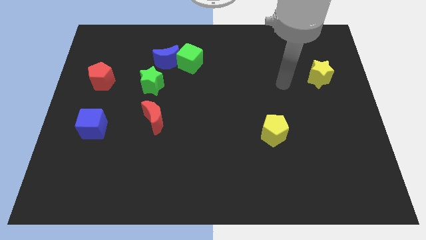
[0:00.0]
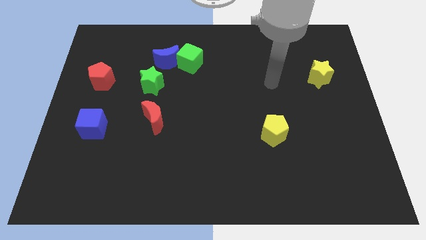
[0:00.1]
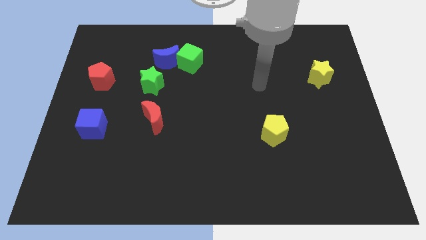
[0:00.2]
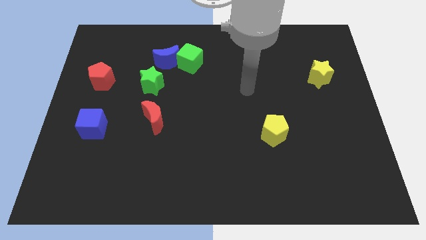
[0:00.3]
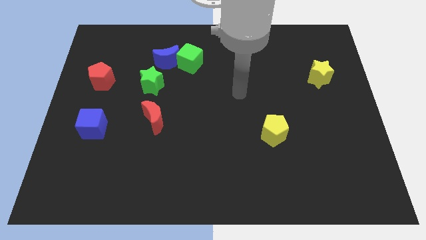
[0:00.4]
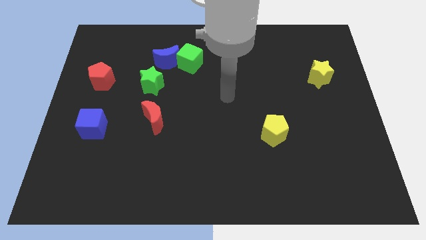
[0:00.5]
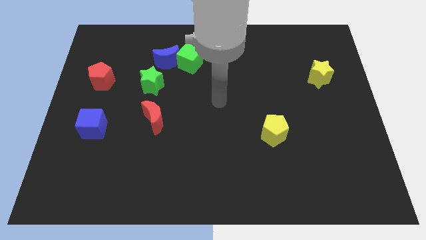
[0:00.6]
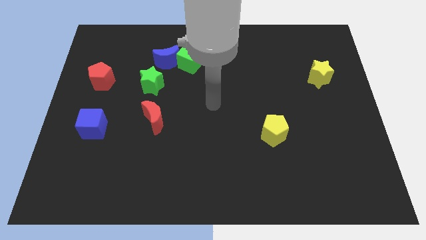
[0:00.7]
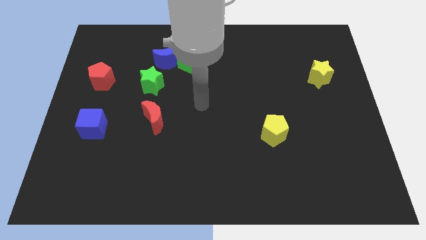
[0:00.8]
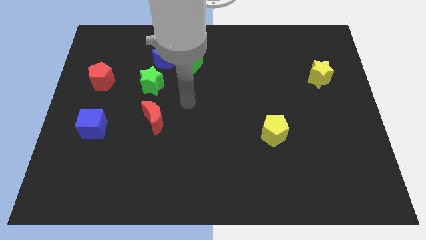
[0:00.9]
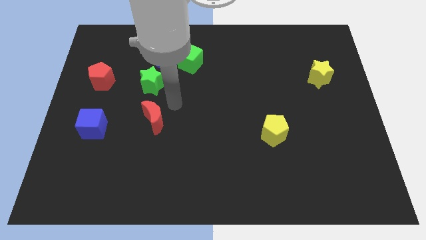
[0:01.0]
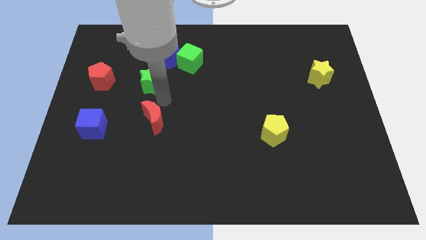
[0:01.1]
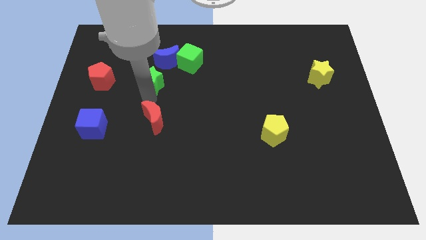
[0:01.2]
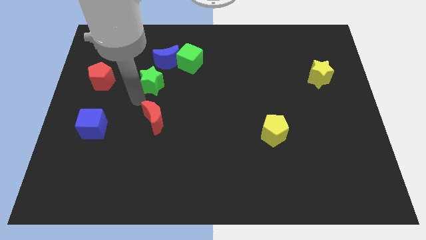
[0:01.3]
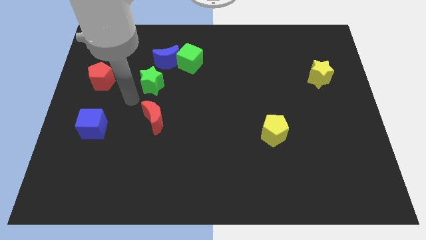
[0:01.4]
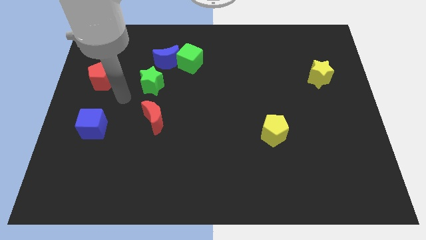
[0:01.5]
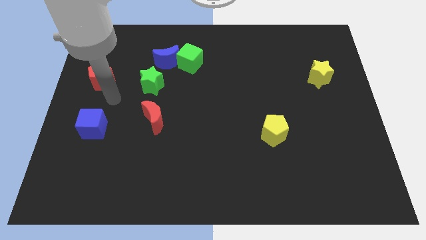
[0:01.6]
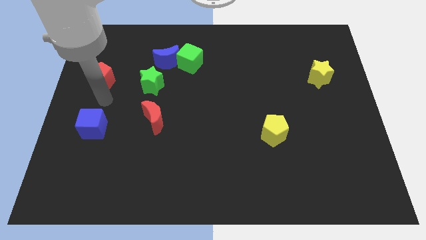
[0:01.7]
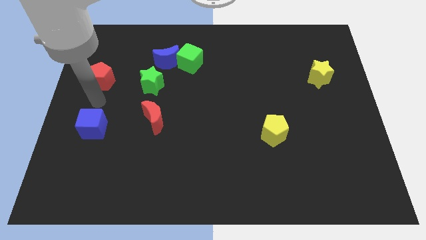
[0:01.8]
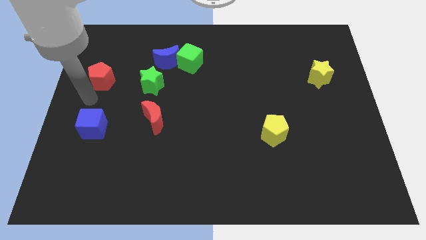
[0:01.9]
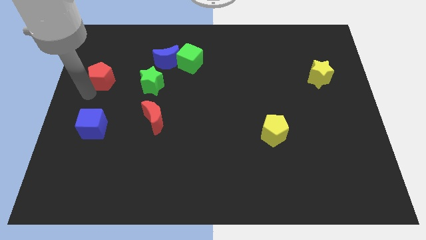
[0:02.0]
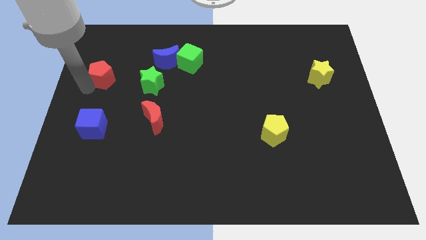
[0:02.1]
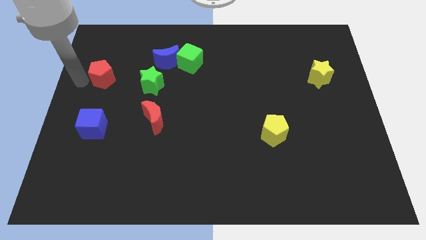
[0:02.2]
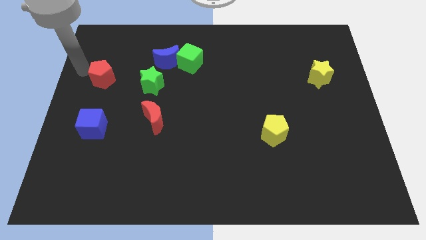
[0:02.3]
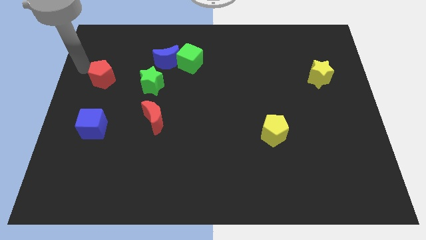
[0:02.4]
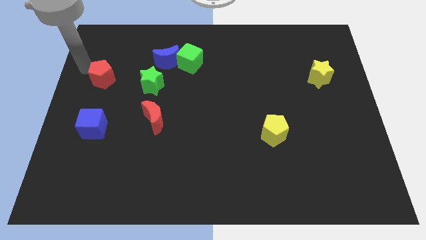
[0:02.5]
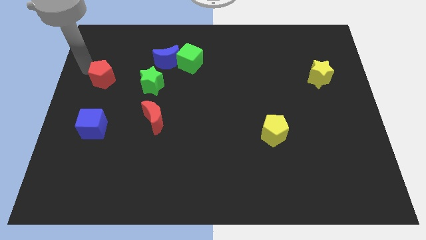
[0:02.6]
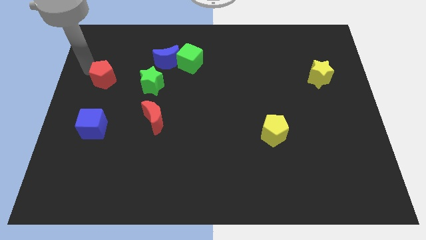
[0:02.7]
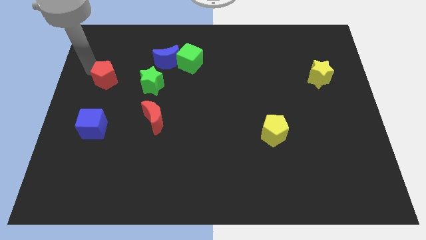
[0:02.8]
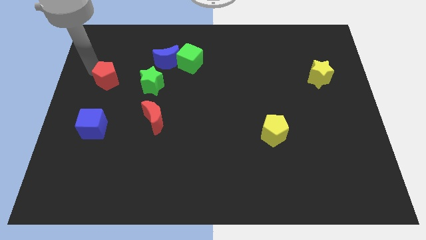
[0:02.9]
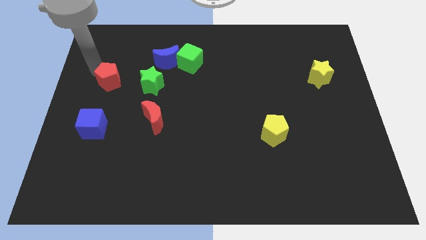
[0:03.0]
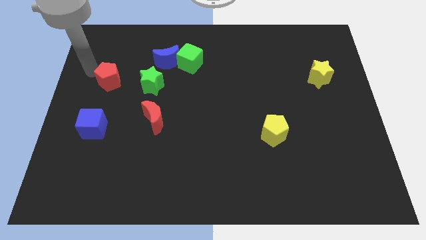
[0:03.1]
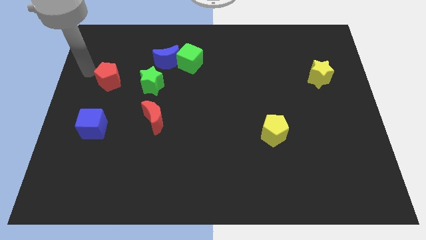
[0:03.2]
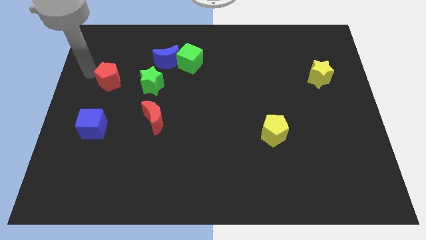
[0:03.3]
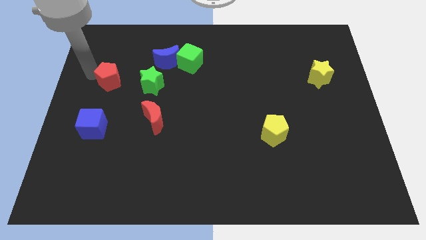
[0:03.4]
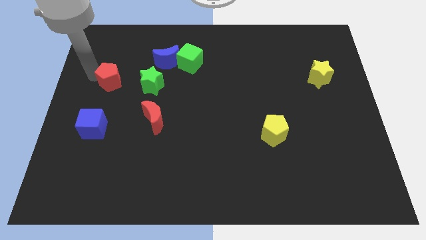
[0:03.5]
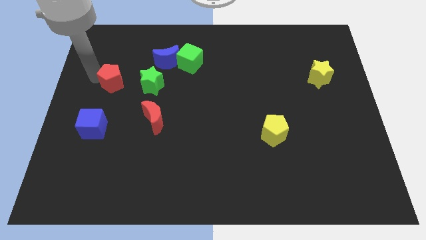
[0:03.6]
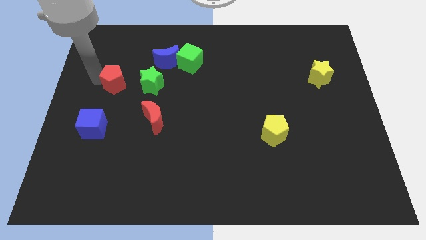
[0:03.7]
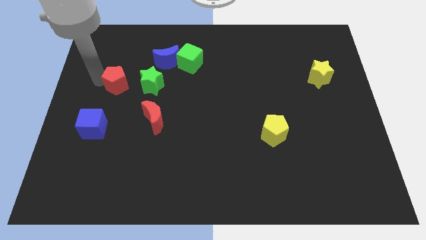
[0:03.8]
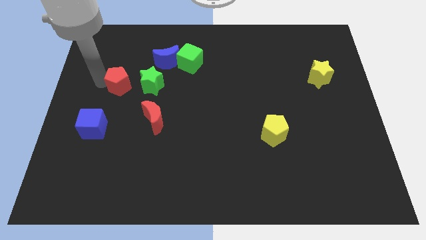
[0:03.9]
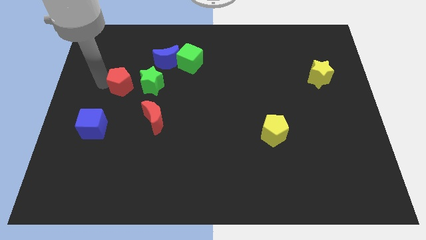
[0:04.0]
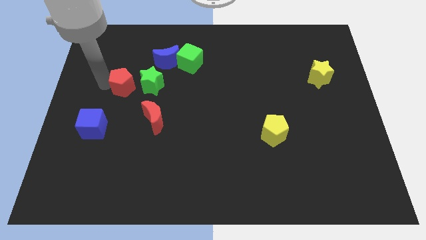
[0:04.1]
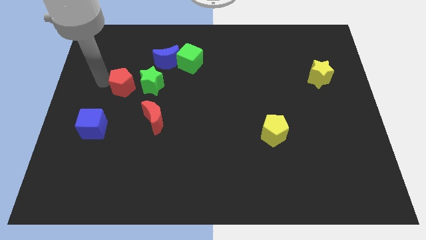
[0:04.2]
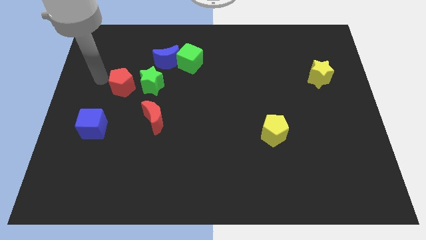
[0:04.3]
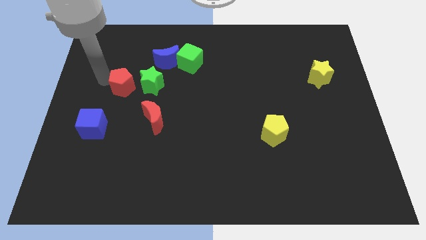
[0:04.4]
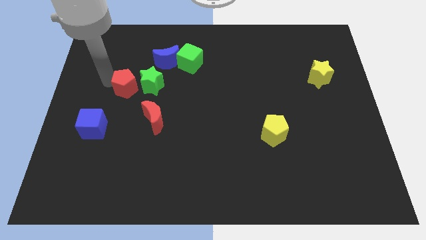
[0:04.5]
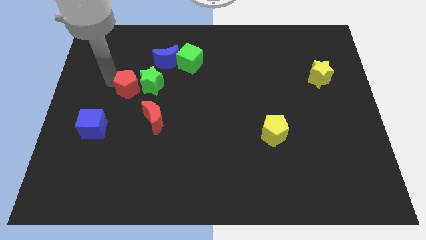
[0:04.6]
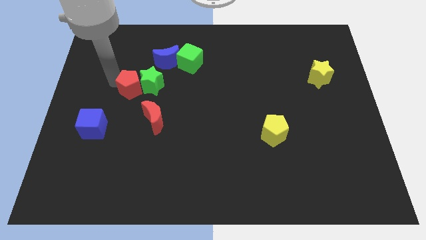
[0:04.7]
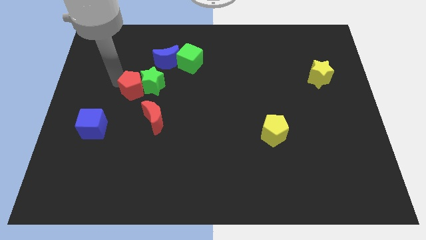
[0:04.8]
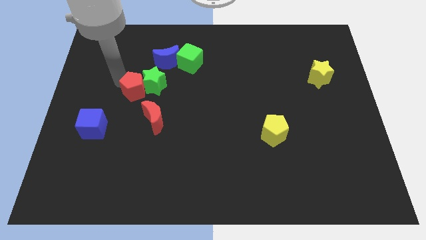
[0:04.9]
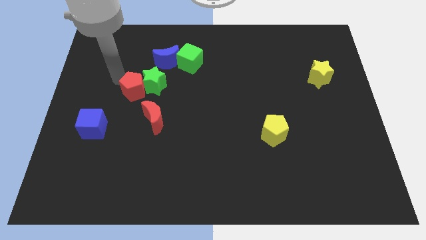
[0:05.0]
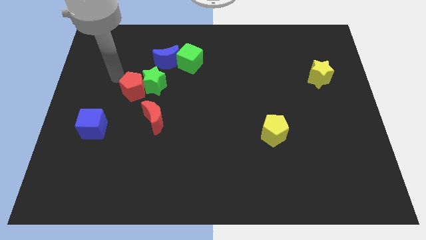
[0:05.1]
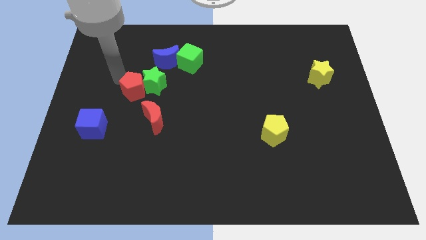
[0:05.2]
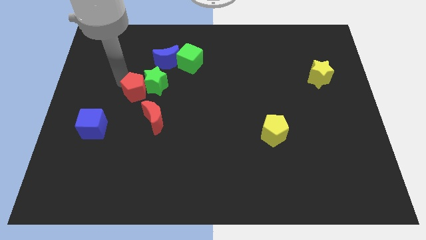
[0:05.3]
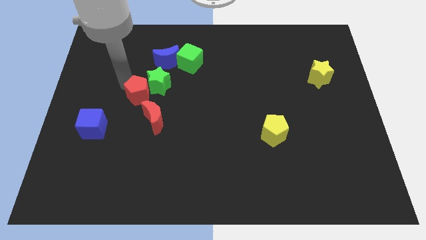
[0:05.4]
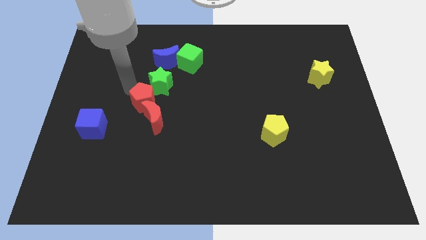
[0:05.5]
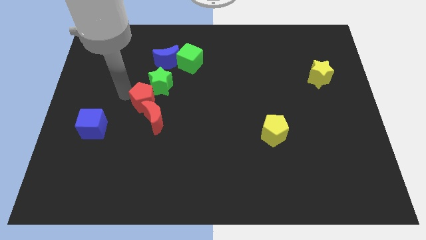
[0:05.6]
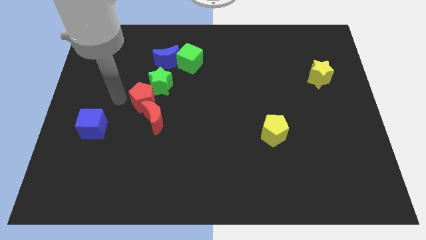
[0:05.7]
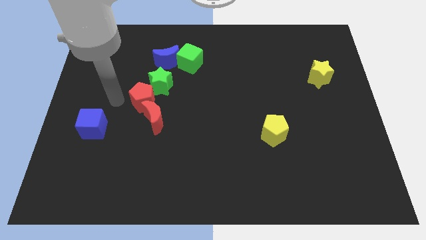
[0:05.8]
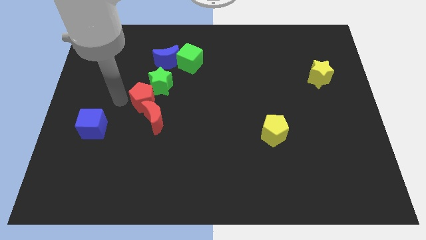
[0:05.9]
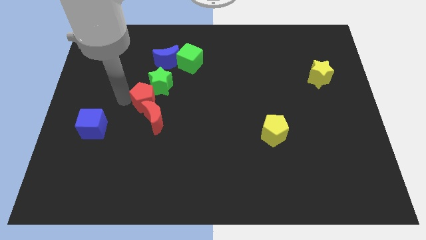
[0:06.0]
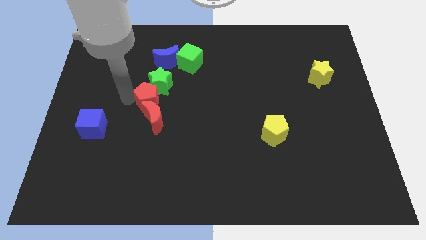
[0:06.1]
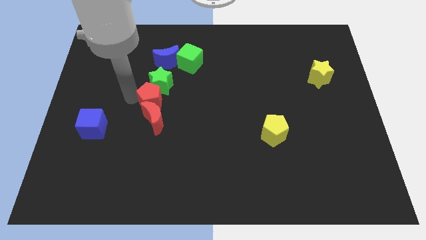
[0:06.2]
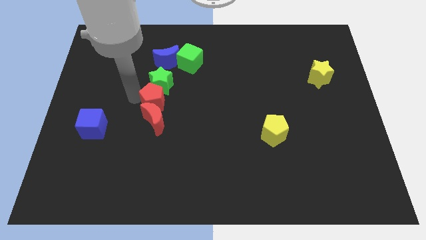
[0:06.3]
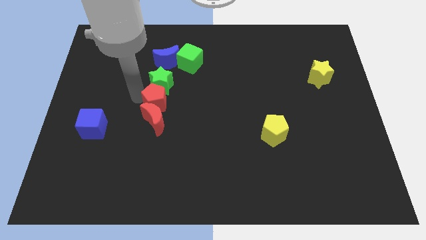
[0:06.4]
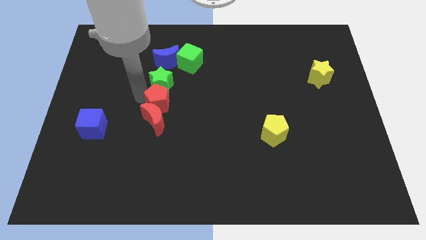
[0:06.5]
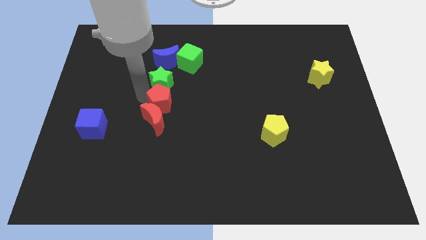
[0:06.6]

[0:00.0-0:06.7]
slide the red pentagon to the middle of the board

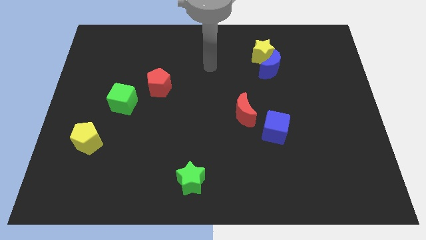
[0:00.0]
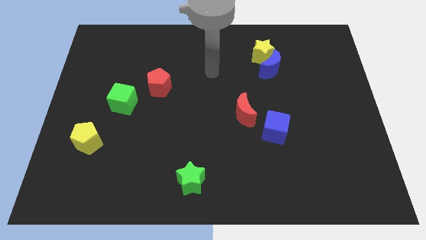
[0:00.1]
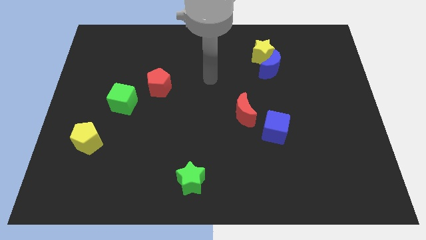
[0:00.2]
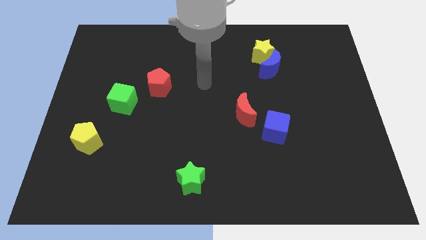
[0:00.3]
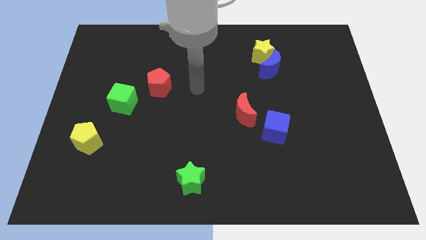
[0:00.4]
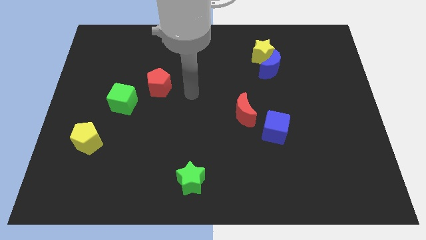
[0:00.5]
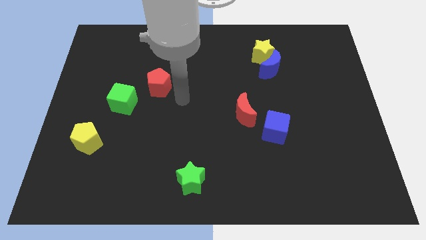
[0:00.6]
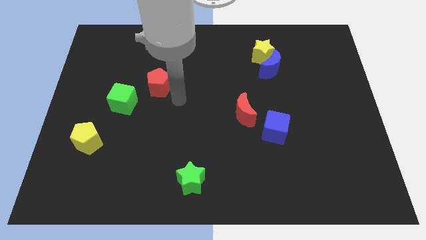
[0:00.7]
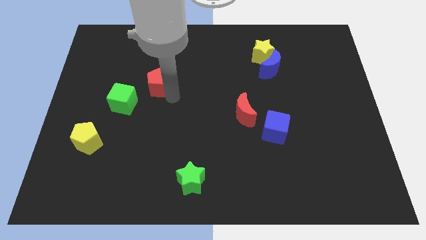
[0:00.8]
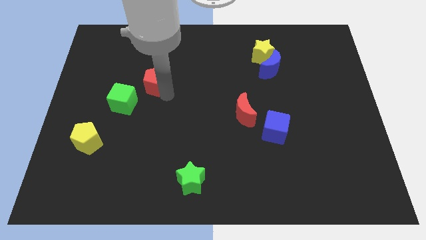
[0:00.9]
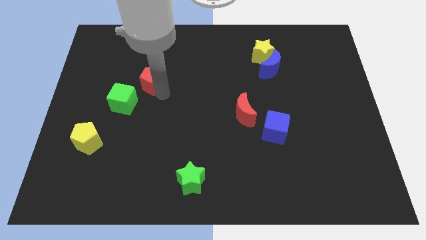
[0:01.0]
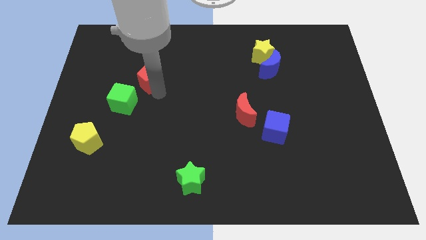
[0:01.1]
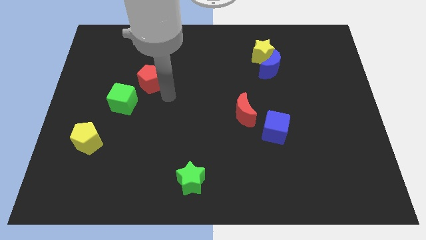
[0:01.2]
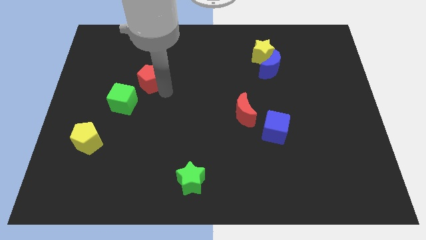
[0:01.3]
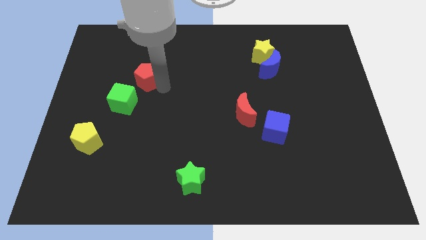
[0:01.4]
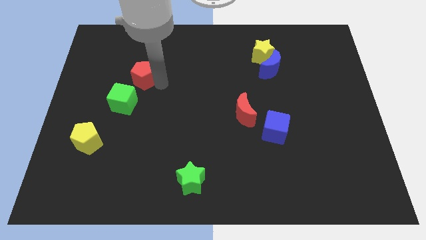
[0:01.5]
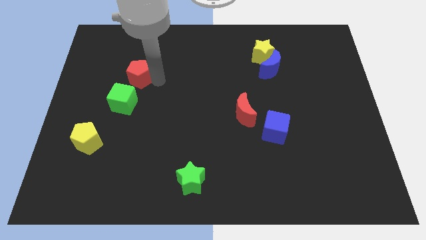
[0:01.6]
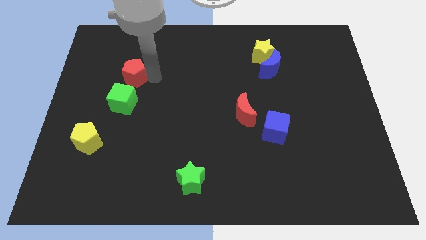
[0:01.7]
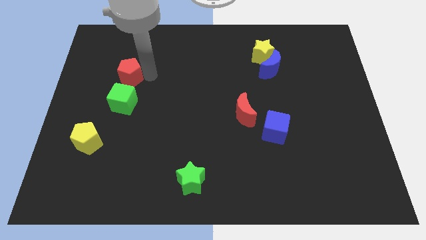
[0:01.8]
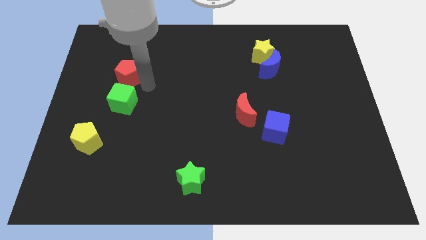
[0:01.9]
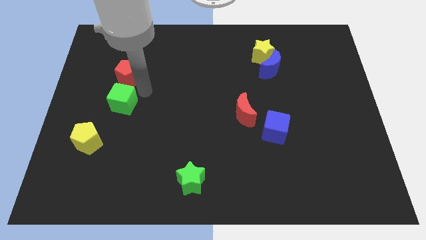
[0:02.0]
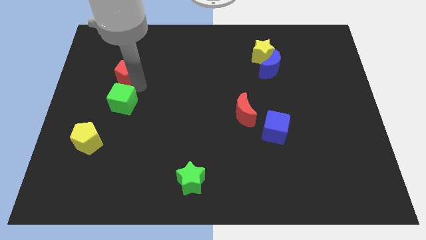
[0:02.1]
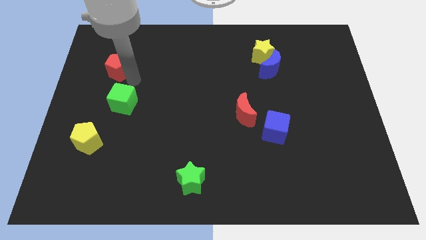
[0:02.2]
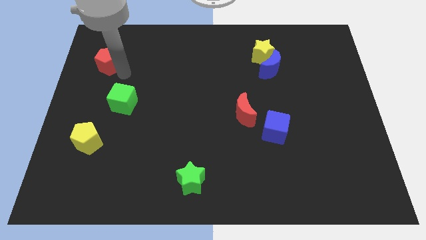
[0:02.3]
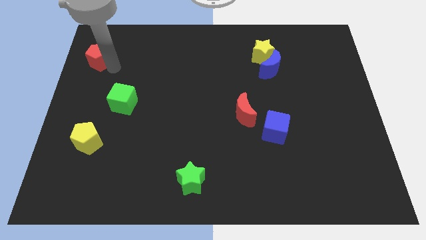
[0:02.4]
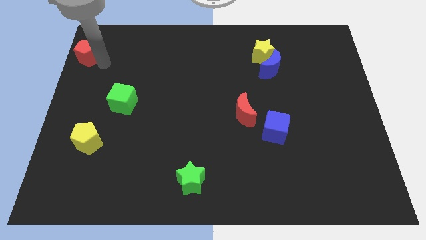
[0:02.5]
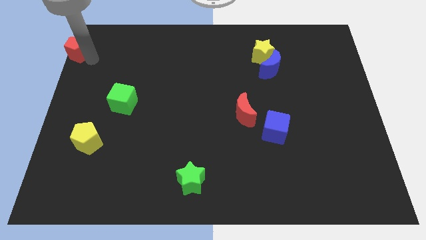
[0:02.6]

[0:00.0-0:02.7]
put the red pentagon to the upper left corner
